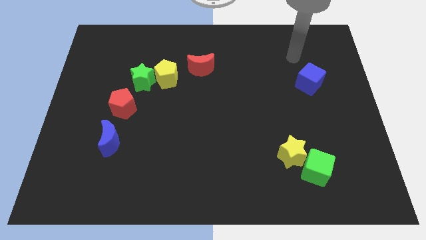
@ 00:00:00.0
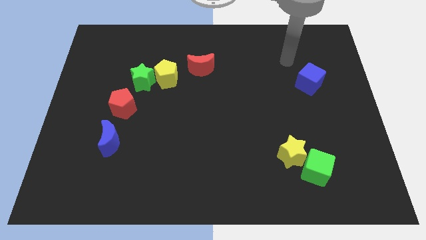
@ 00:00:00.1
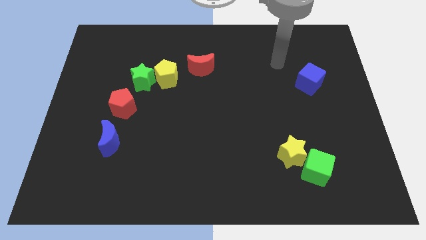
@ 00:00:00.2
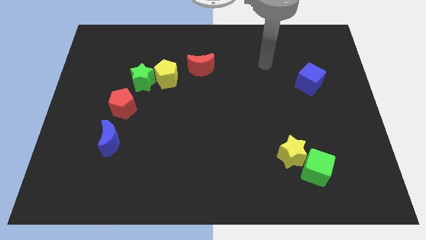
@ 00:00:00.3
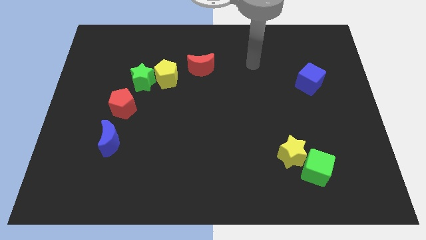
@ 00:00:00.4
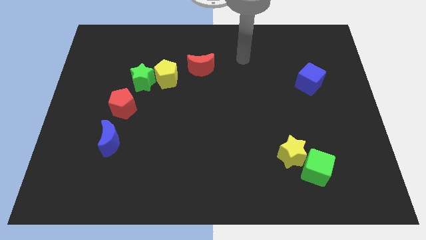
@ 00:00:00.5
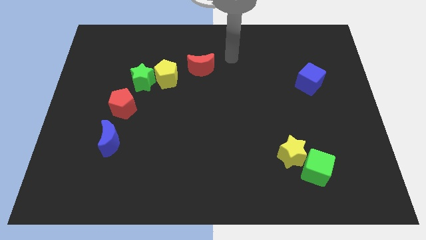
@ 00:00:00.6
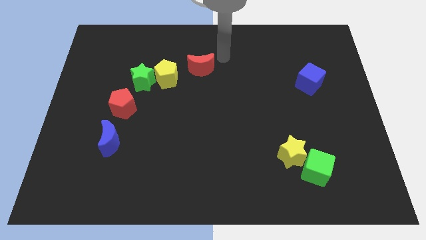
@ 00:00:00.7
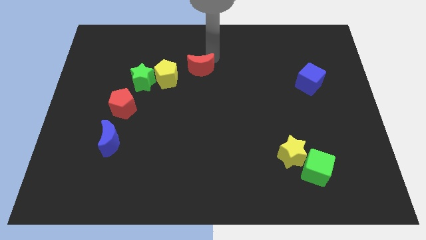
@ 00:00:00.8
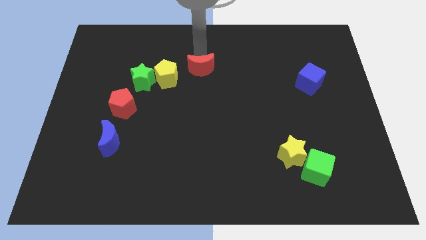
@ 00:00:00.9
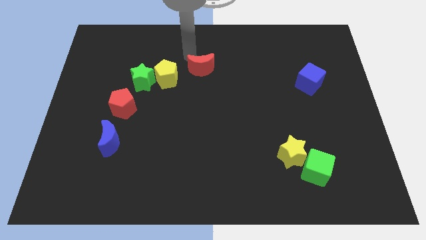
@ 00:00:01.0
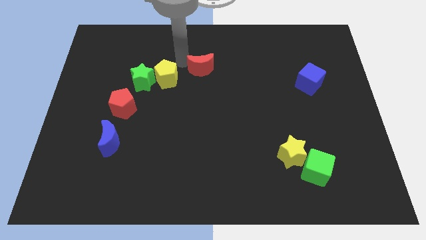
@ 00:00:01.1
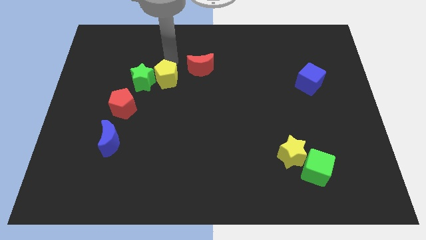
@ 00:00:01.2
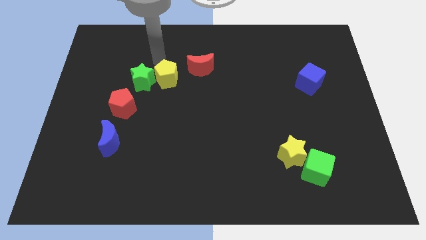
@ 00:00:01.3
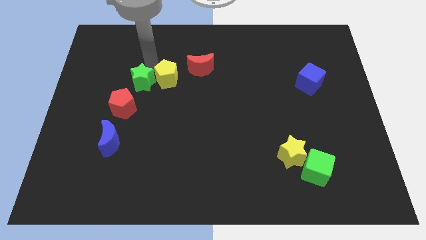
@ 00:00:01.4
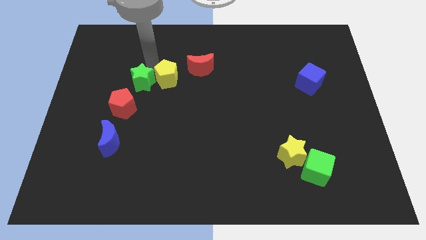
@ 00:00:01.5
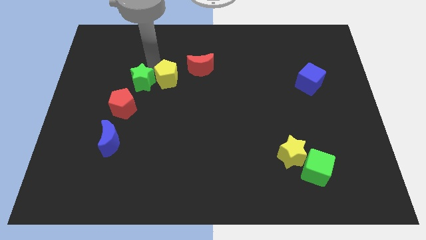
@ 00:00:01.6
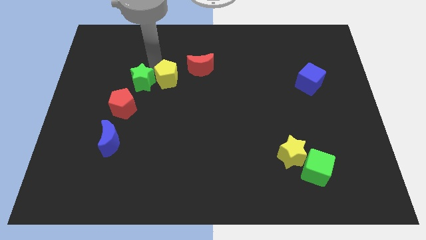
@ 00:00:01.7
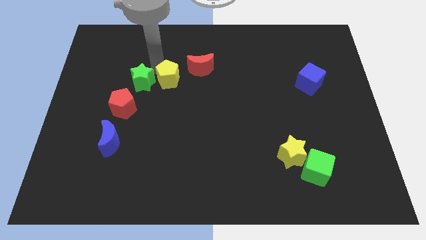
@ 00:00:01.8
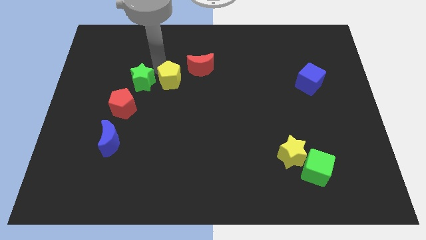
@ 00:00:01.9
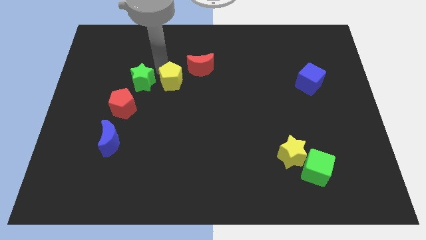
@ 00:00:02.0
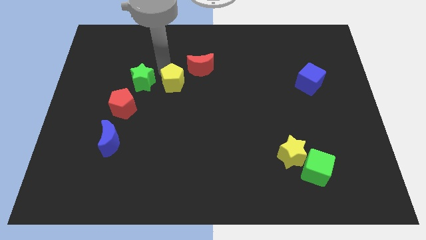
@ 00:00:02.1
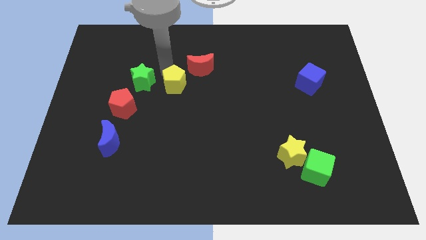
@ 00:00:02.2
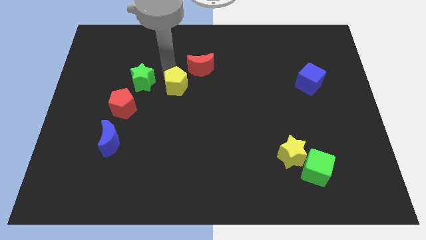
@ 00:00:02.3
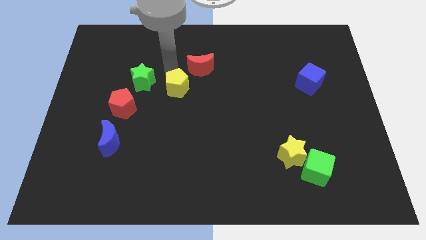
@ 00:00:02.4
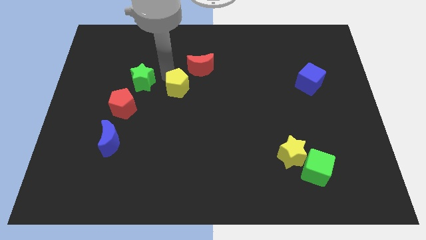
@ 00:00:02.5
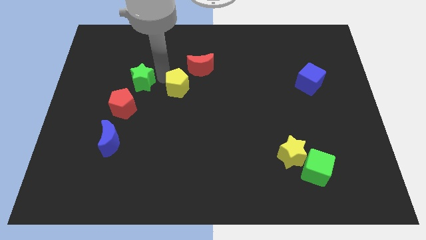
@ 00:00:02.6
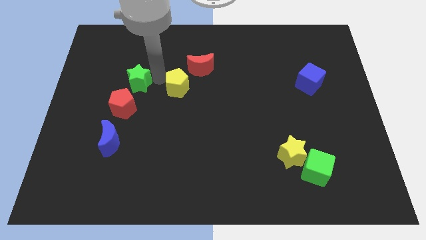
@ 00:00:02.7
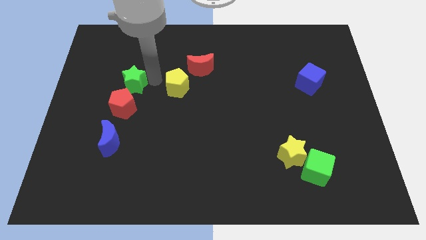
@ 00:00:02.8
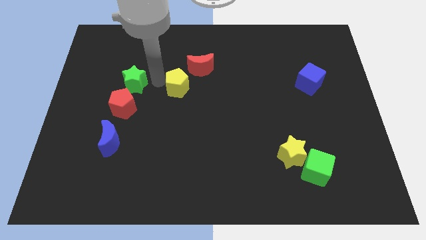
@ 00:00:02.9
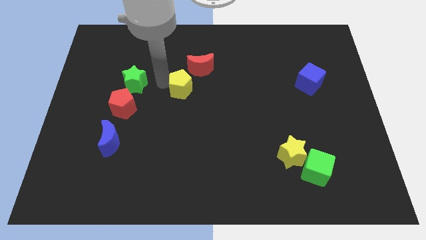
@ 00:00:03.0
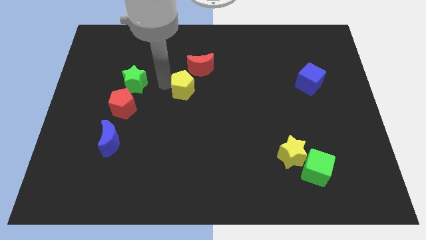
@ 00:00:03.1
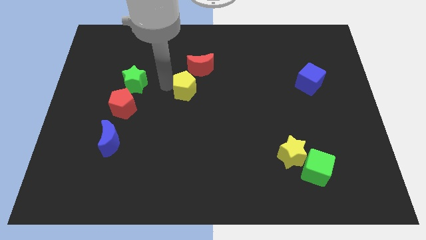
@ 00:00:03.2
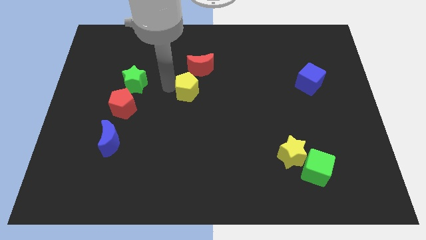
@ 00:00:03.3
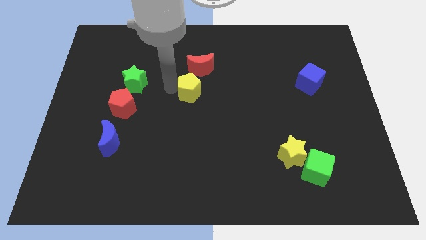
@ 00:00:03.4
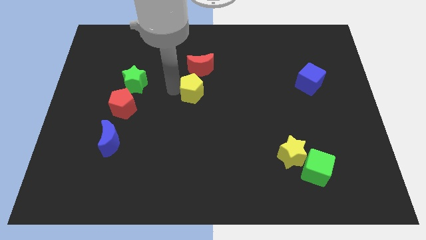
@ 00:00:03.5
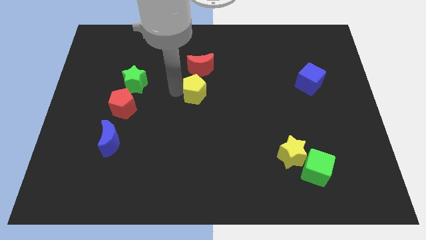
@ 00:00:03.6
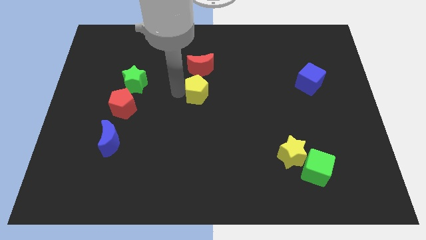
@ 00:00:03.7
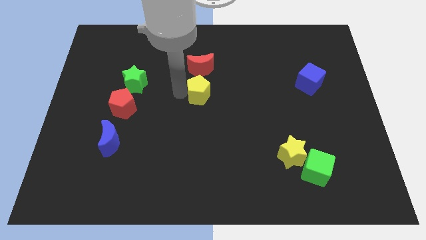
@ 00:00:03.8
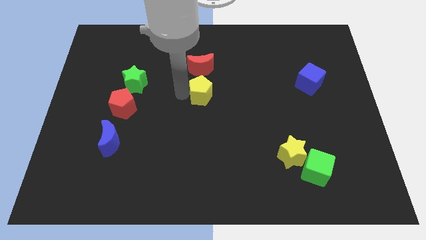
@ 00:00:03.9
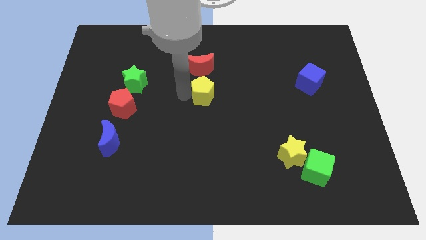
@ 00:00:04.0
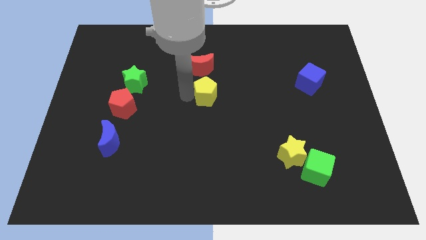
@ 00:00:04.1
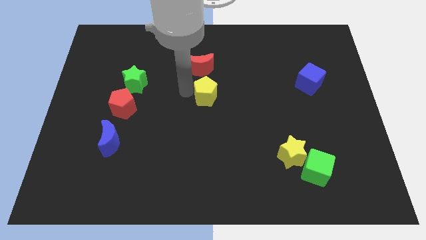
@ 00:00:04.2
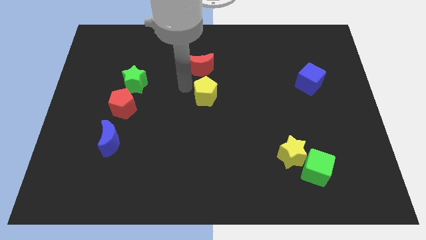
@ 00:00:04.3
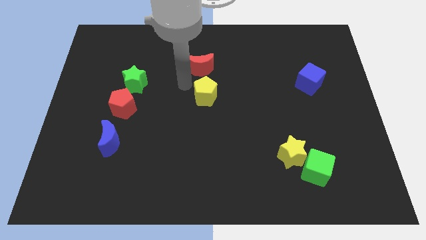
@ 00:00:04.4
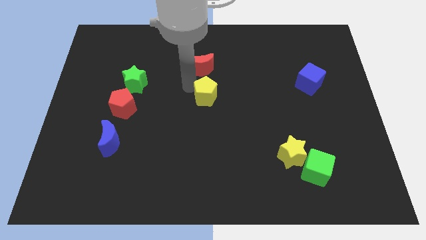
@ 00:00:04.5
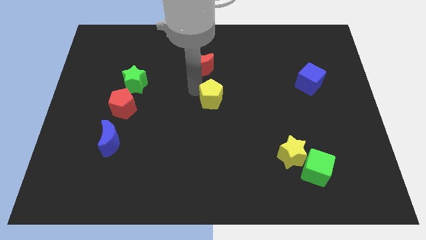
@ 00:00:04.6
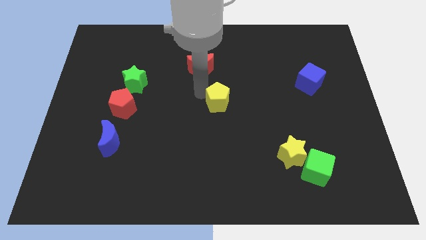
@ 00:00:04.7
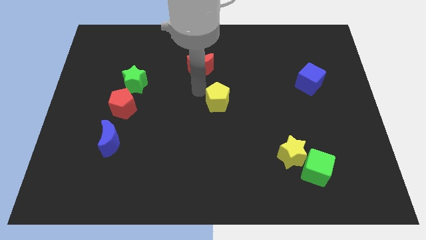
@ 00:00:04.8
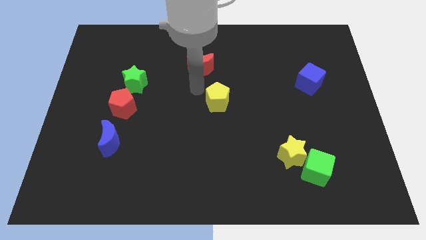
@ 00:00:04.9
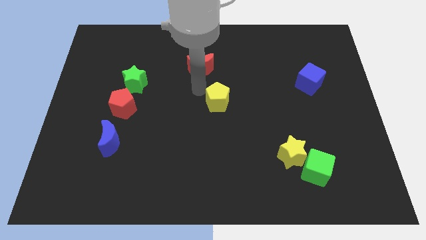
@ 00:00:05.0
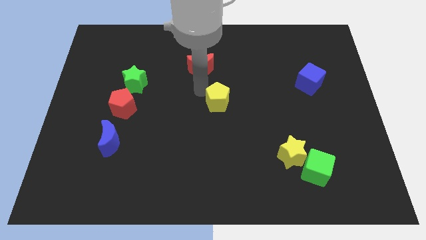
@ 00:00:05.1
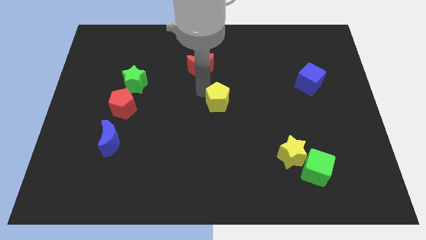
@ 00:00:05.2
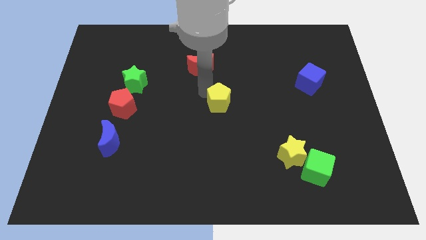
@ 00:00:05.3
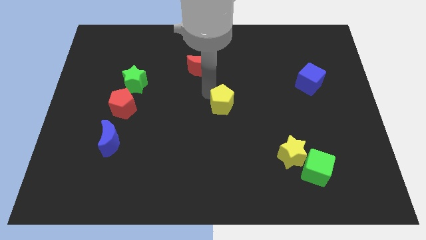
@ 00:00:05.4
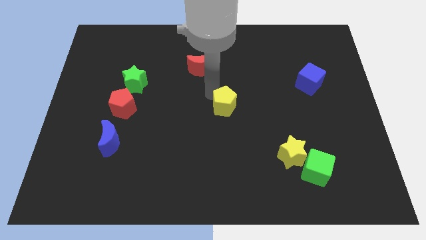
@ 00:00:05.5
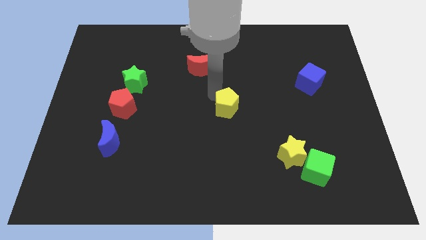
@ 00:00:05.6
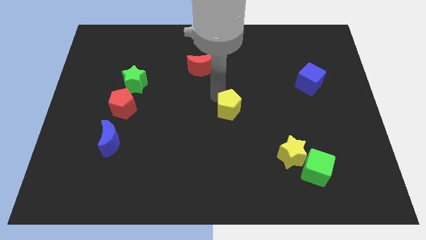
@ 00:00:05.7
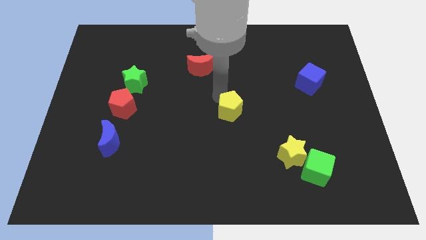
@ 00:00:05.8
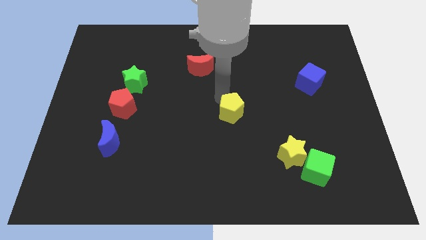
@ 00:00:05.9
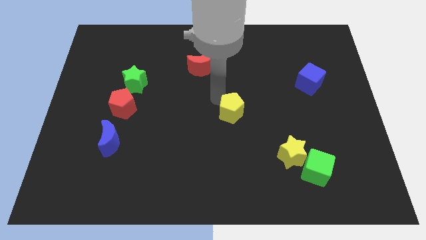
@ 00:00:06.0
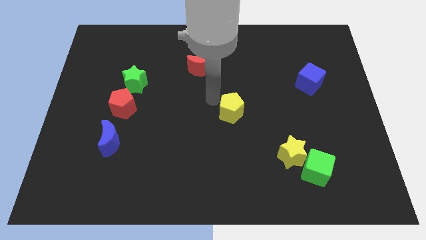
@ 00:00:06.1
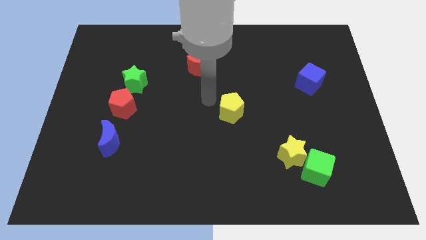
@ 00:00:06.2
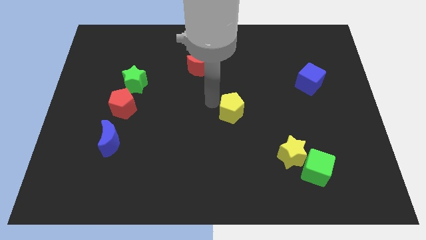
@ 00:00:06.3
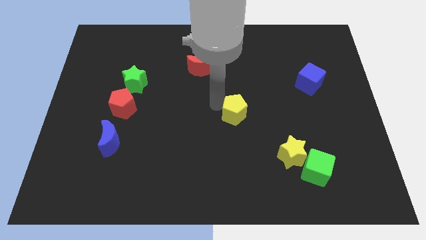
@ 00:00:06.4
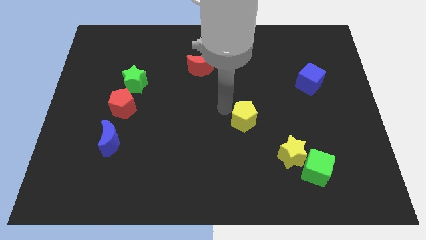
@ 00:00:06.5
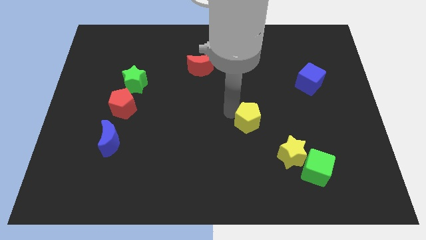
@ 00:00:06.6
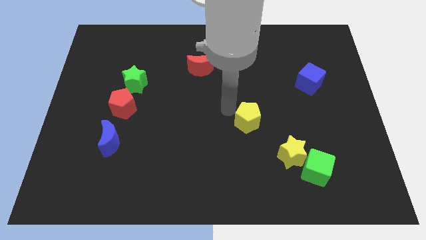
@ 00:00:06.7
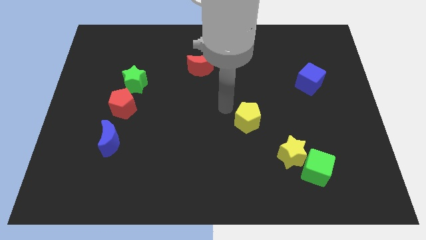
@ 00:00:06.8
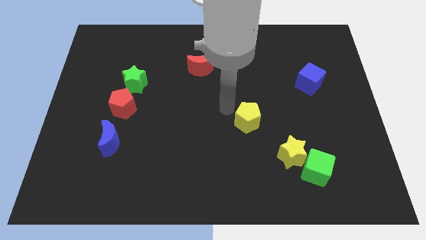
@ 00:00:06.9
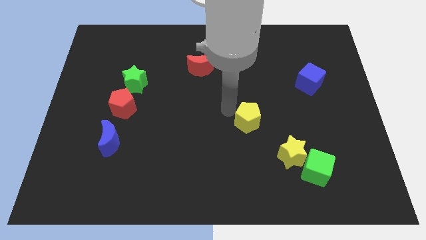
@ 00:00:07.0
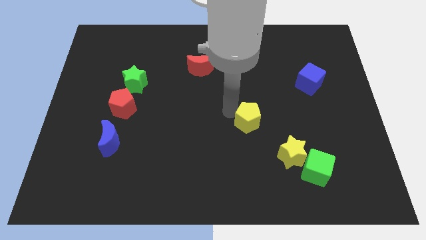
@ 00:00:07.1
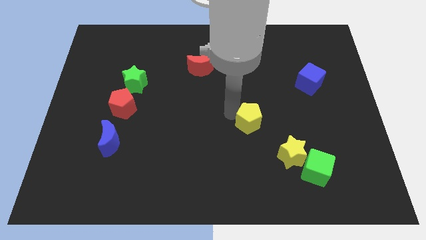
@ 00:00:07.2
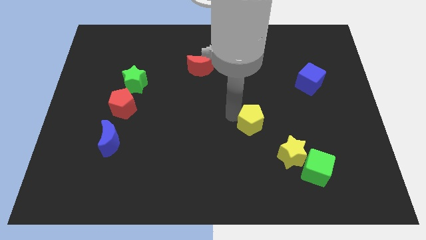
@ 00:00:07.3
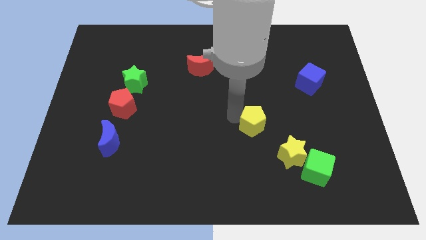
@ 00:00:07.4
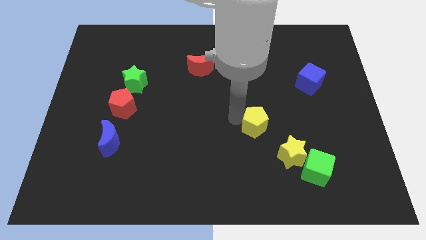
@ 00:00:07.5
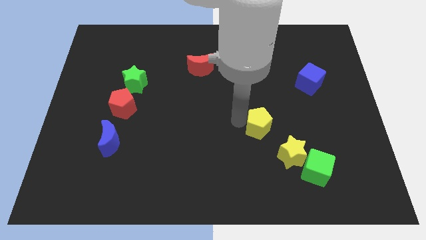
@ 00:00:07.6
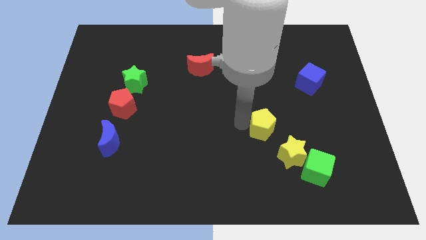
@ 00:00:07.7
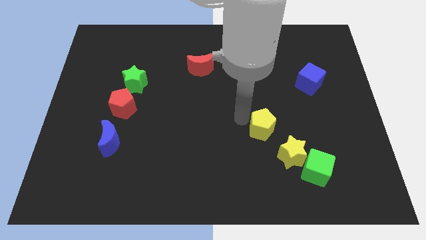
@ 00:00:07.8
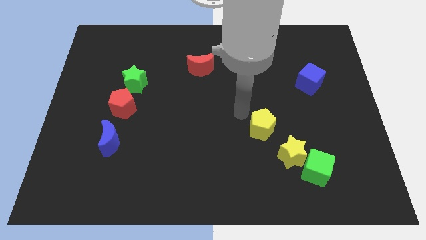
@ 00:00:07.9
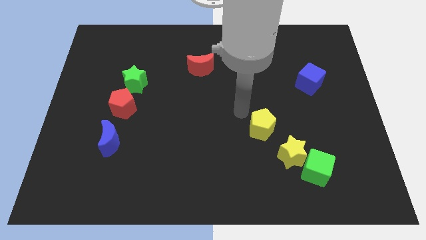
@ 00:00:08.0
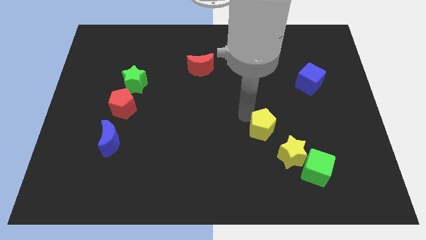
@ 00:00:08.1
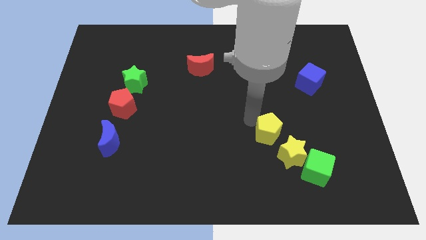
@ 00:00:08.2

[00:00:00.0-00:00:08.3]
slide the yellow pentagon diagonally up and to the left of the green cube
